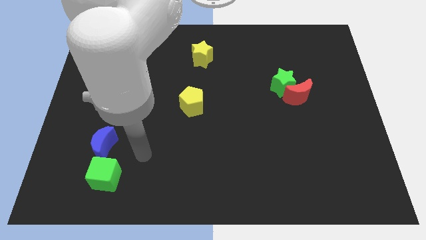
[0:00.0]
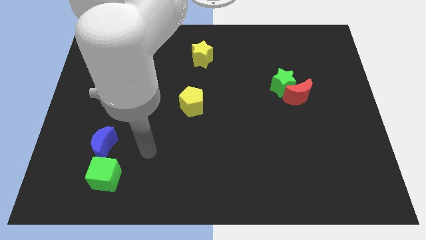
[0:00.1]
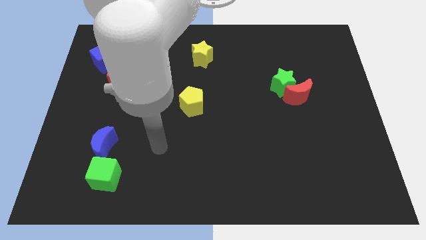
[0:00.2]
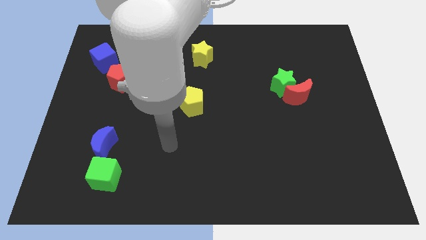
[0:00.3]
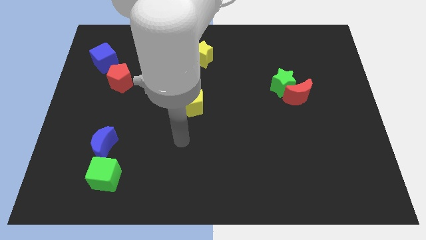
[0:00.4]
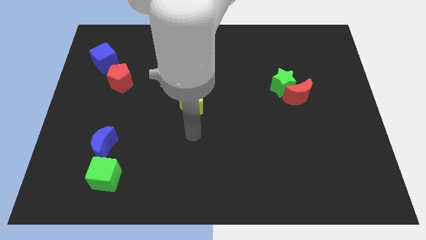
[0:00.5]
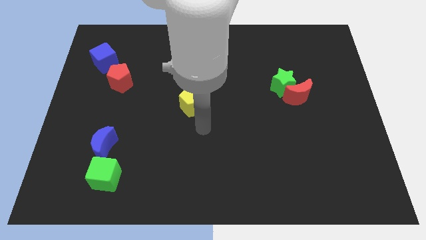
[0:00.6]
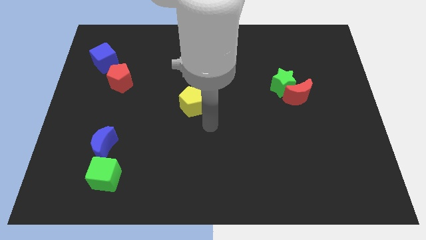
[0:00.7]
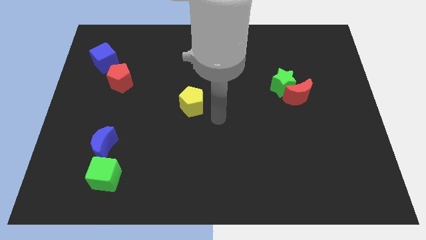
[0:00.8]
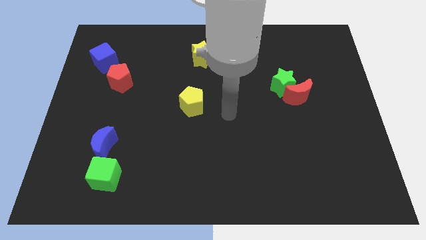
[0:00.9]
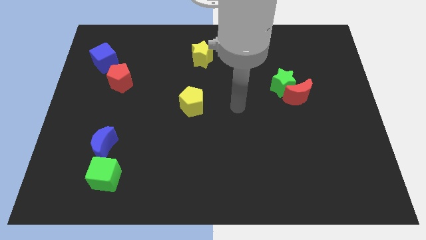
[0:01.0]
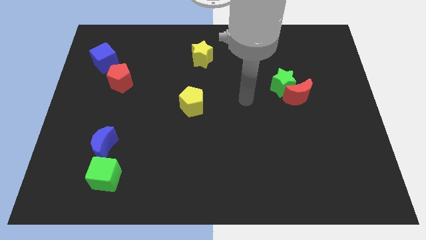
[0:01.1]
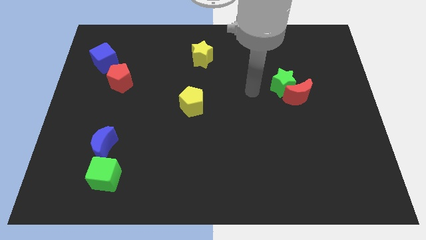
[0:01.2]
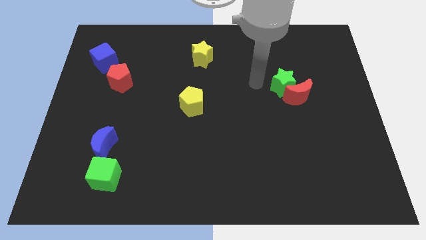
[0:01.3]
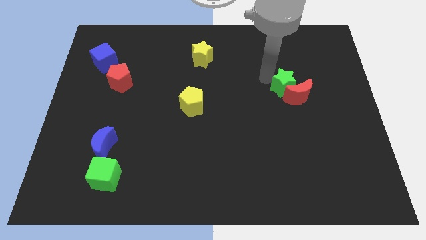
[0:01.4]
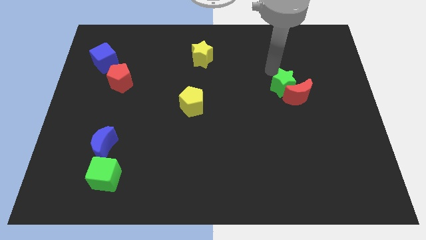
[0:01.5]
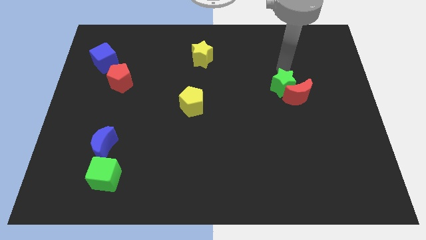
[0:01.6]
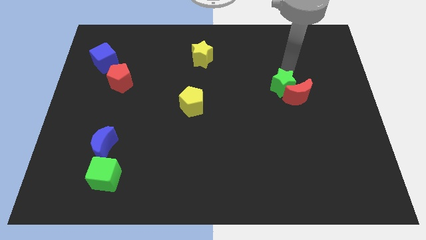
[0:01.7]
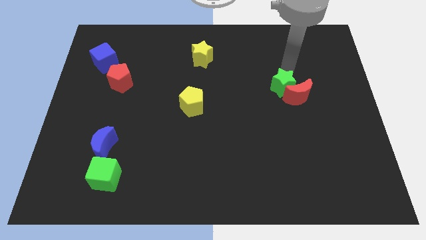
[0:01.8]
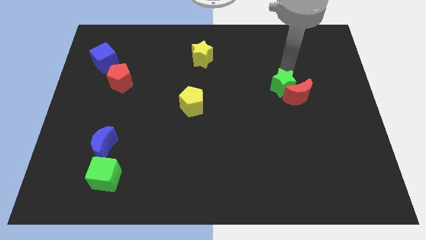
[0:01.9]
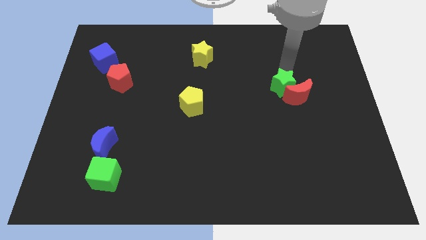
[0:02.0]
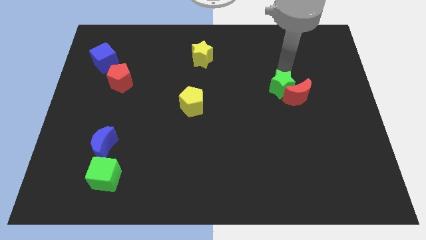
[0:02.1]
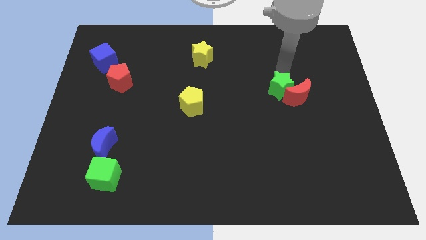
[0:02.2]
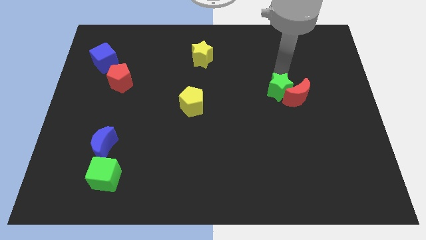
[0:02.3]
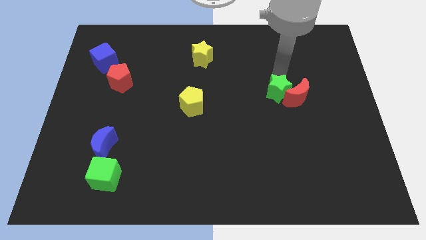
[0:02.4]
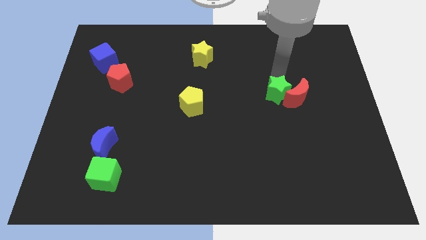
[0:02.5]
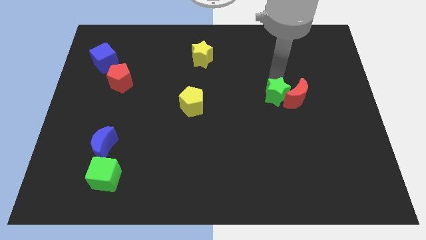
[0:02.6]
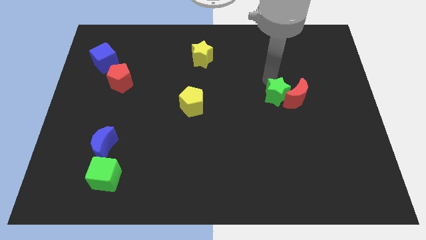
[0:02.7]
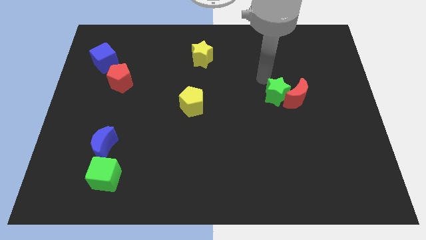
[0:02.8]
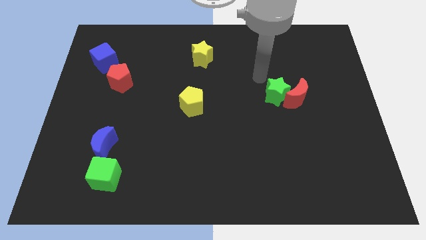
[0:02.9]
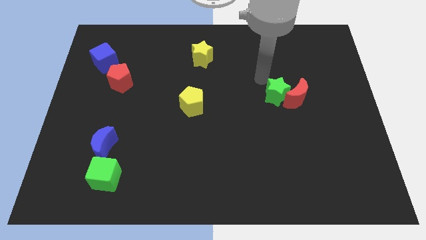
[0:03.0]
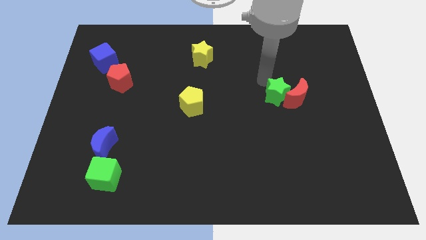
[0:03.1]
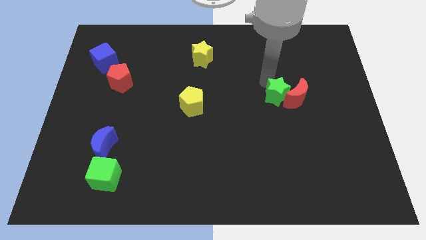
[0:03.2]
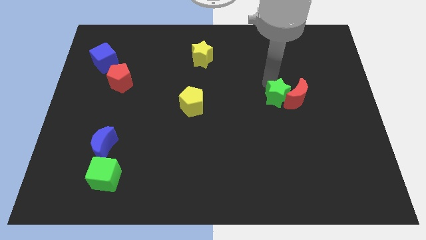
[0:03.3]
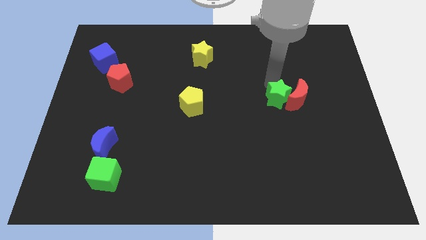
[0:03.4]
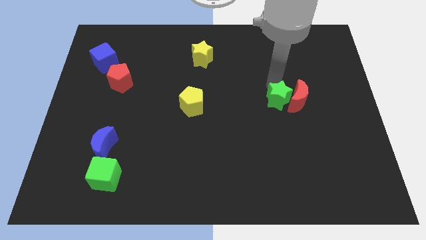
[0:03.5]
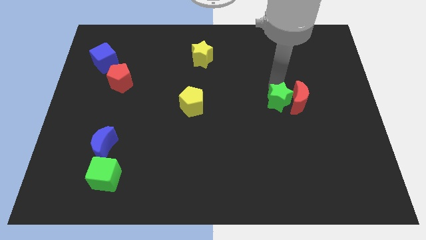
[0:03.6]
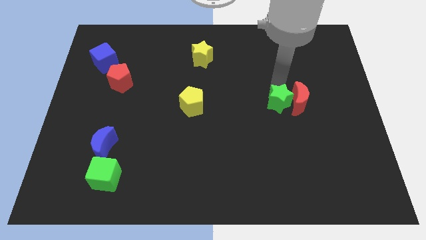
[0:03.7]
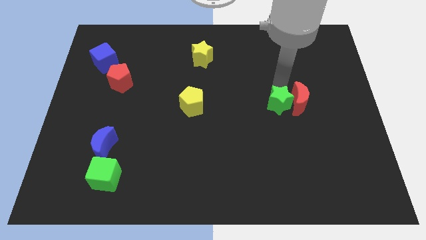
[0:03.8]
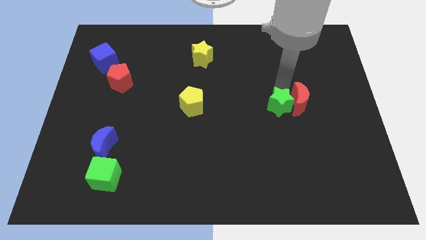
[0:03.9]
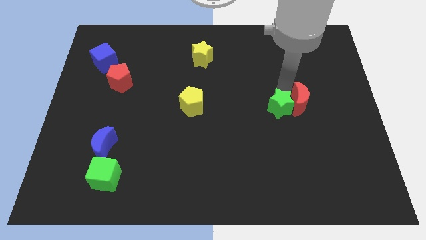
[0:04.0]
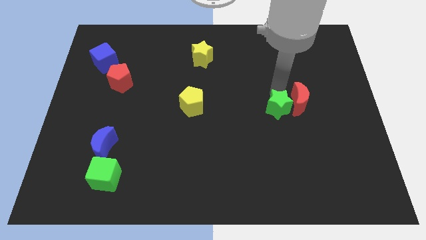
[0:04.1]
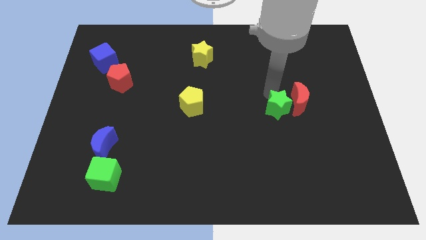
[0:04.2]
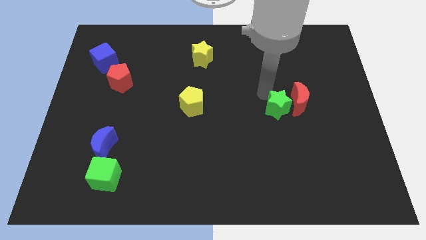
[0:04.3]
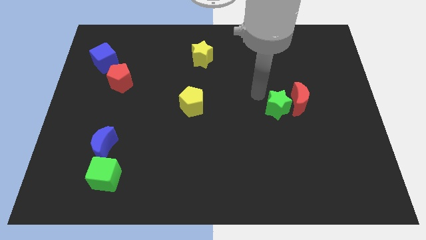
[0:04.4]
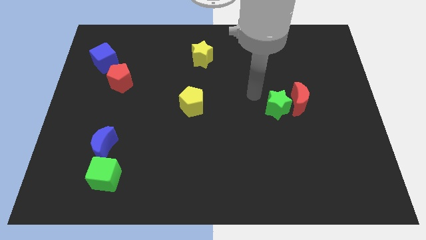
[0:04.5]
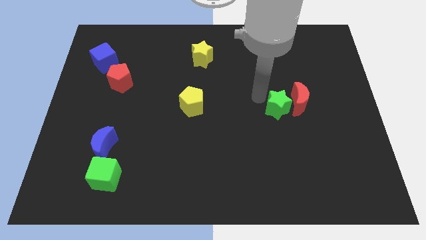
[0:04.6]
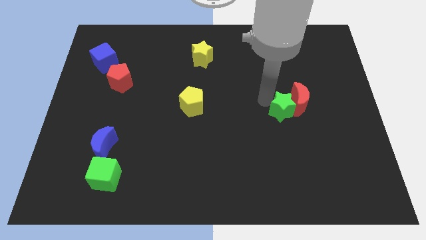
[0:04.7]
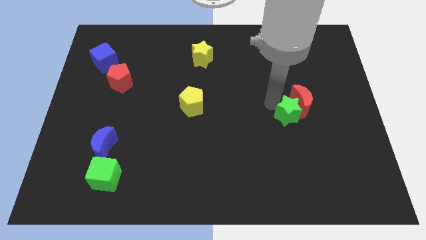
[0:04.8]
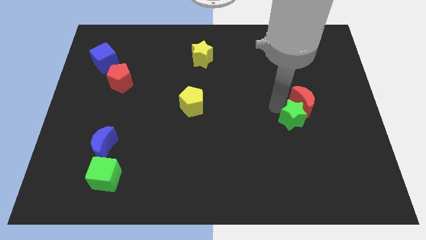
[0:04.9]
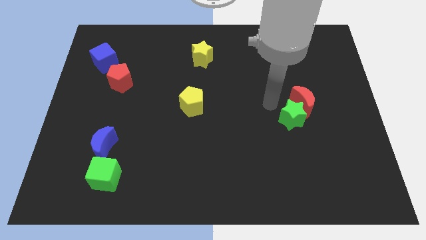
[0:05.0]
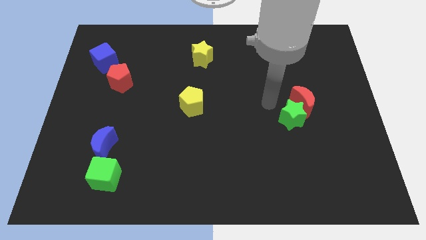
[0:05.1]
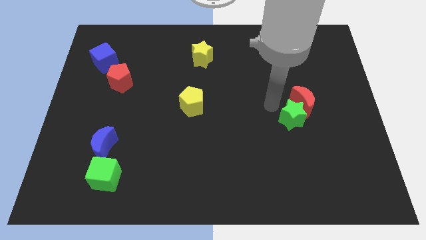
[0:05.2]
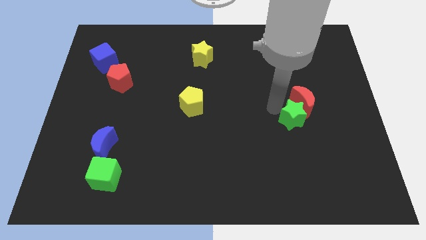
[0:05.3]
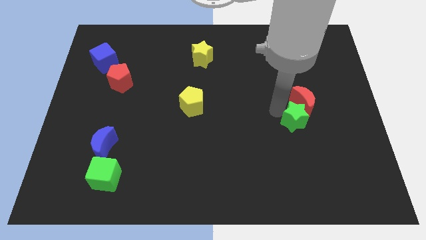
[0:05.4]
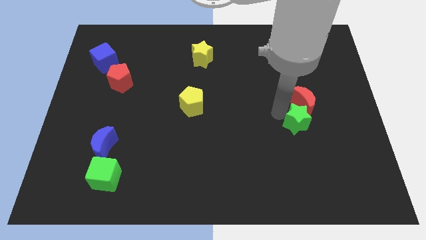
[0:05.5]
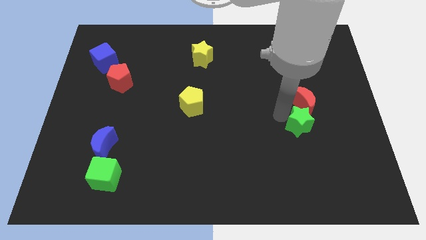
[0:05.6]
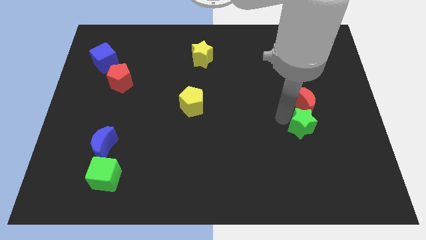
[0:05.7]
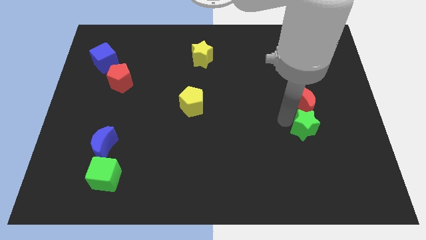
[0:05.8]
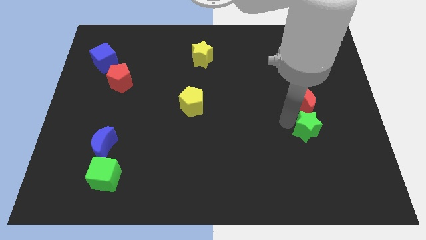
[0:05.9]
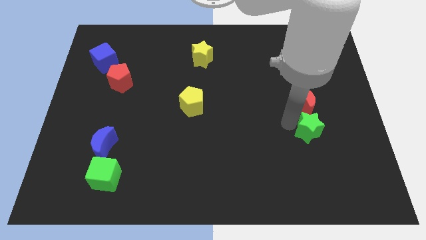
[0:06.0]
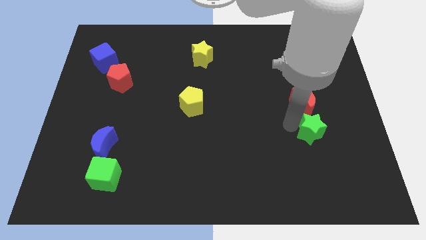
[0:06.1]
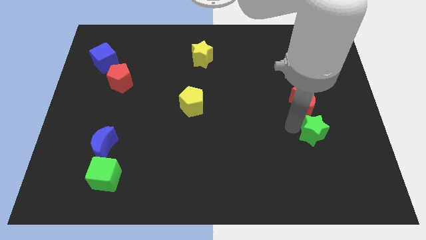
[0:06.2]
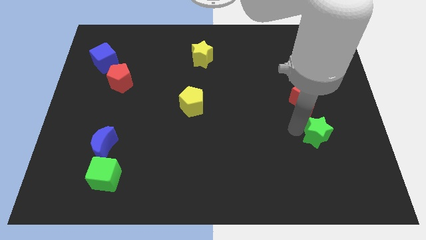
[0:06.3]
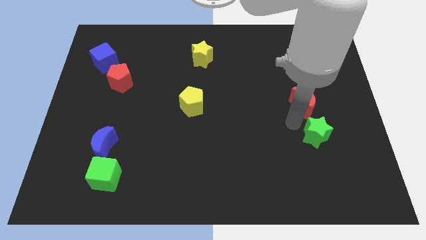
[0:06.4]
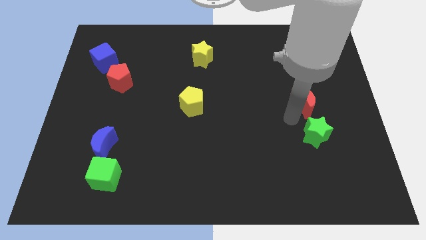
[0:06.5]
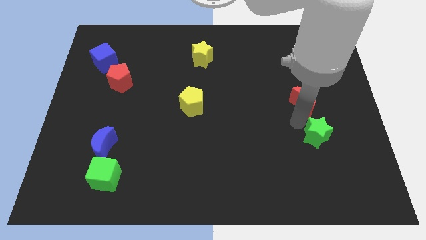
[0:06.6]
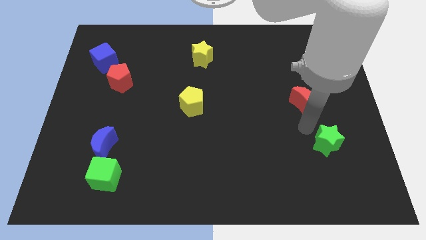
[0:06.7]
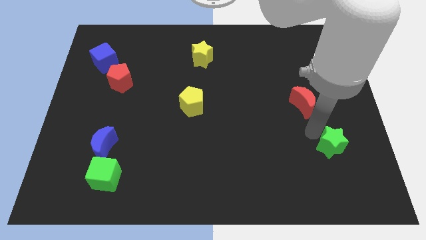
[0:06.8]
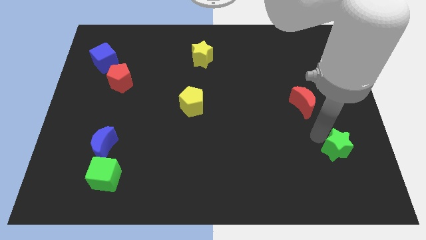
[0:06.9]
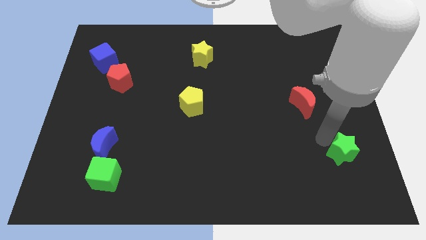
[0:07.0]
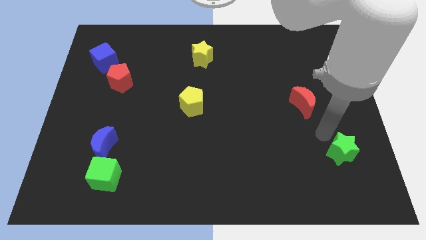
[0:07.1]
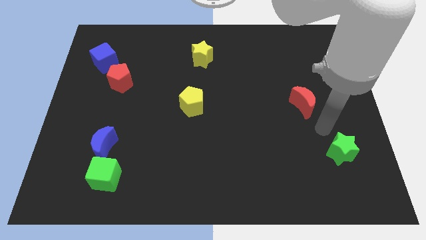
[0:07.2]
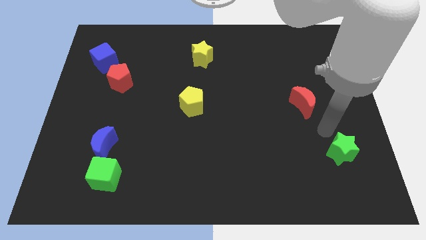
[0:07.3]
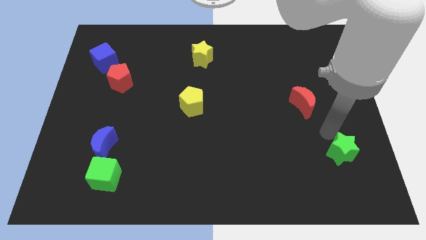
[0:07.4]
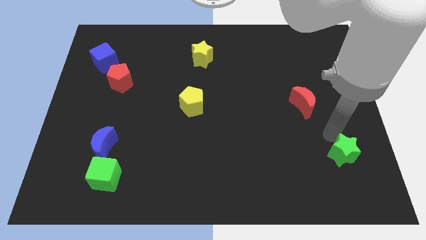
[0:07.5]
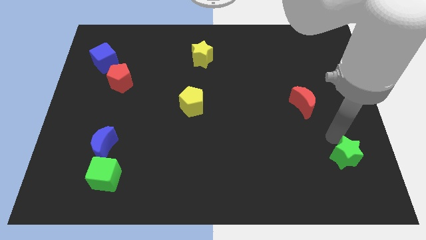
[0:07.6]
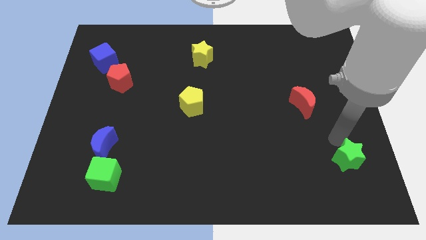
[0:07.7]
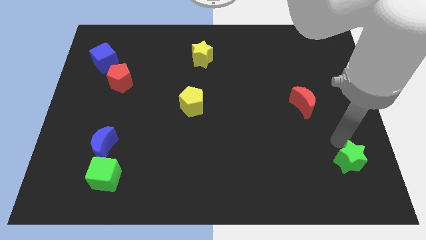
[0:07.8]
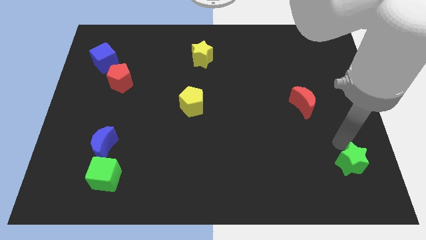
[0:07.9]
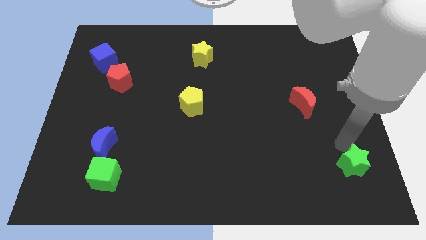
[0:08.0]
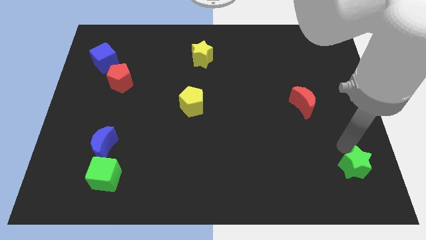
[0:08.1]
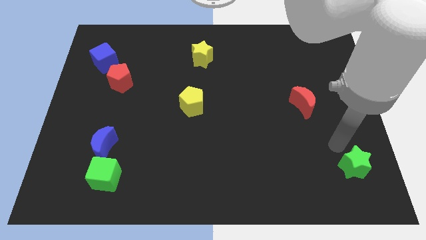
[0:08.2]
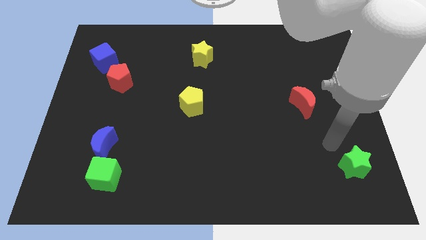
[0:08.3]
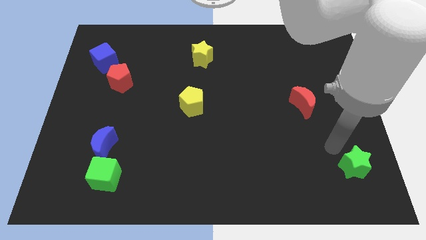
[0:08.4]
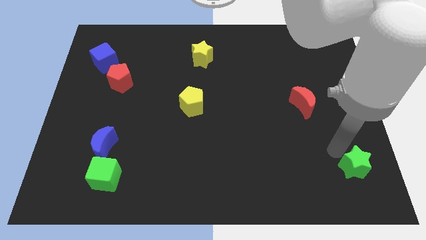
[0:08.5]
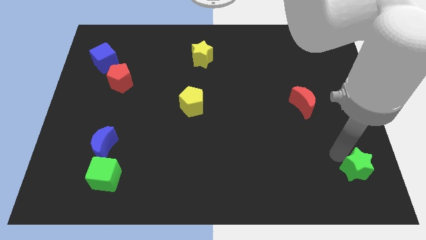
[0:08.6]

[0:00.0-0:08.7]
put the green star to the bottom right of the board
